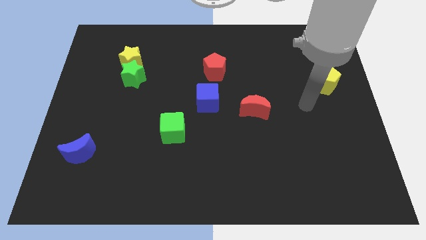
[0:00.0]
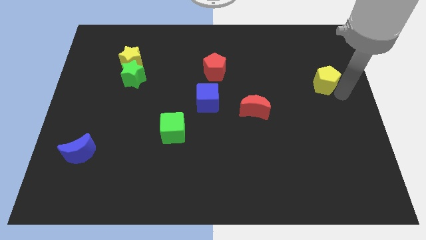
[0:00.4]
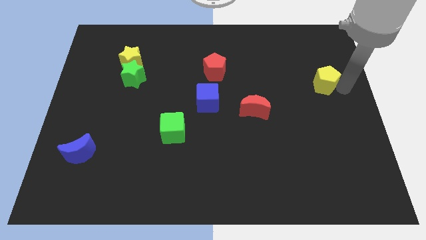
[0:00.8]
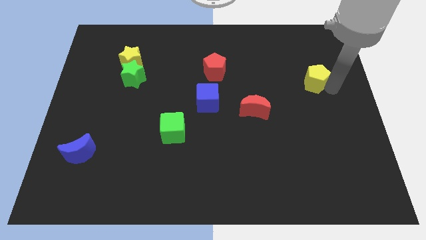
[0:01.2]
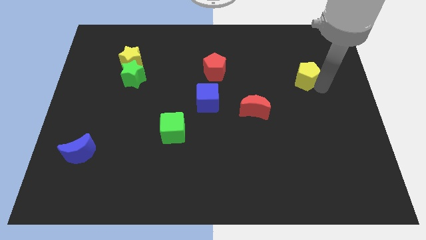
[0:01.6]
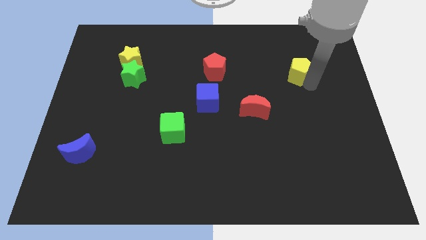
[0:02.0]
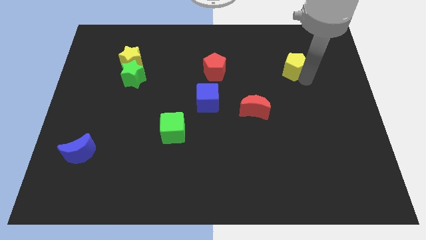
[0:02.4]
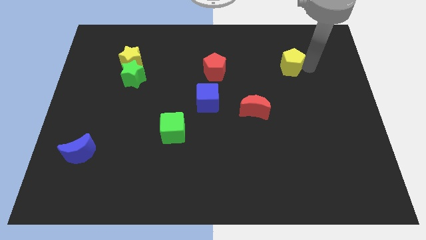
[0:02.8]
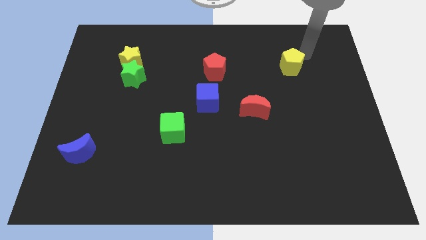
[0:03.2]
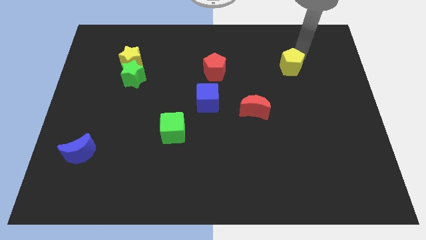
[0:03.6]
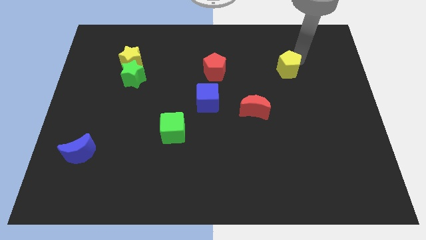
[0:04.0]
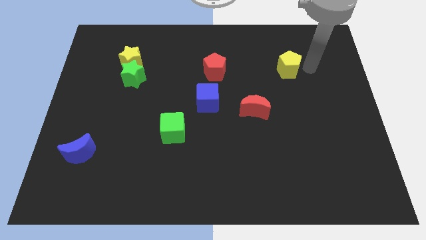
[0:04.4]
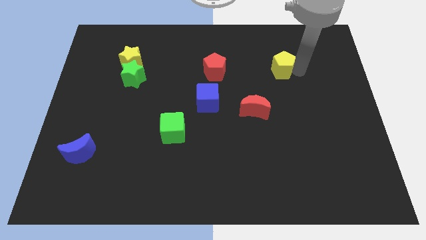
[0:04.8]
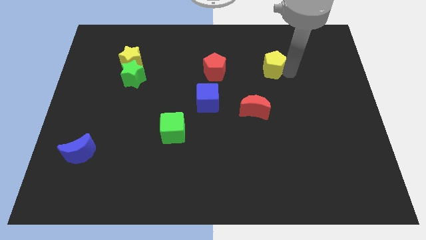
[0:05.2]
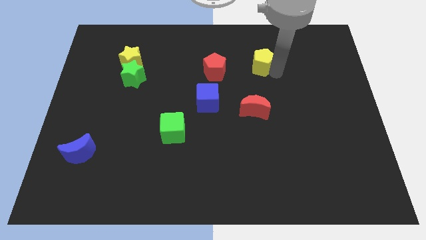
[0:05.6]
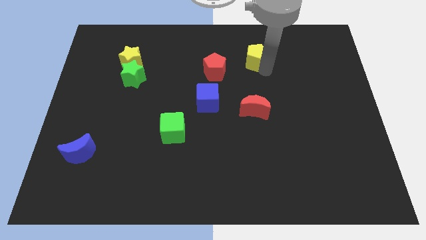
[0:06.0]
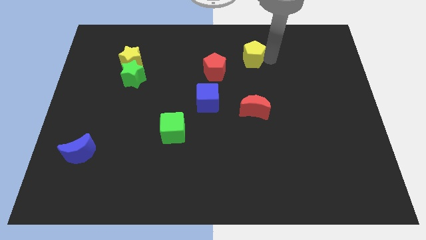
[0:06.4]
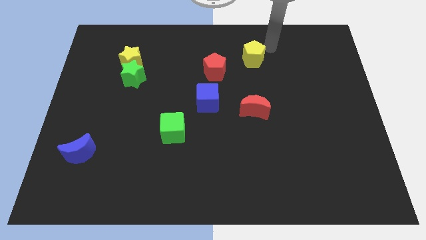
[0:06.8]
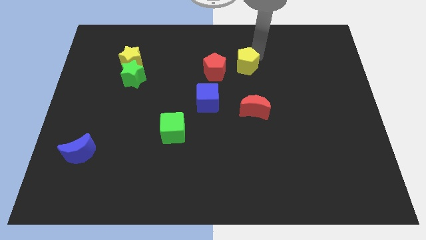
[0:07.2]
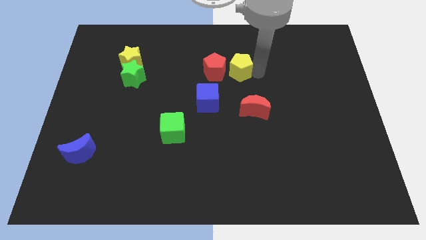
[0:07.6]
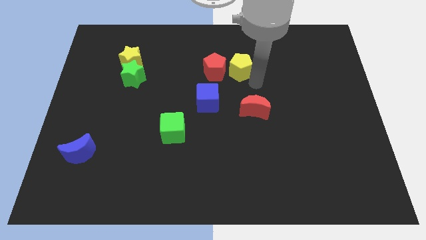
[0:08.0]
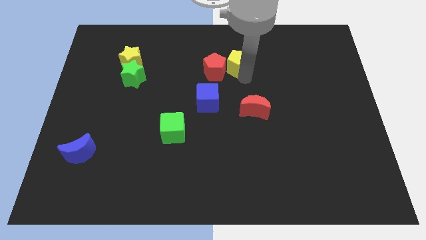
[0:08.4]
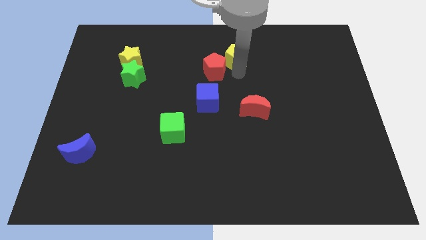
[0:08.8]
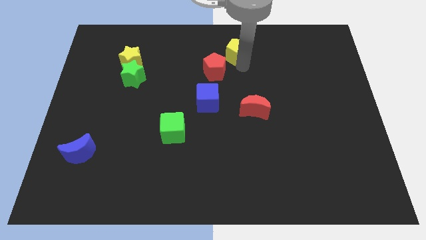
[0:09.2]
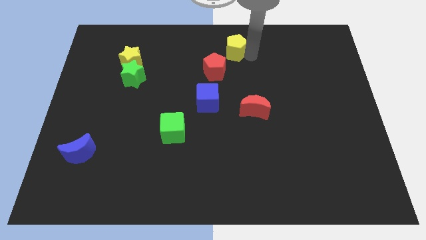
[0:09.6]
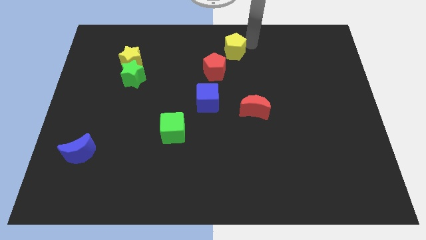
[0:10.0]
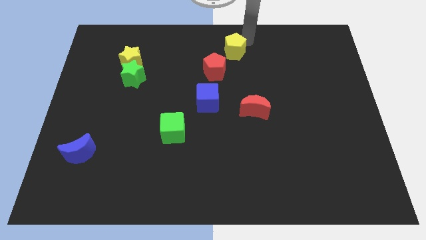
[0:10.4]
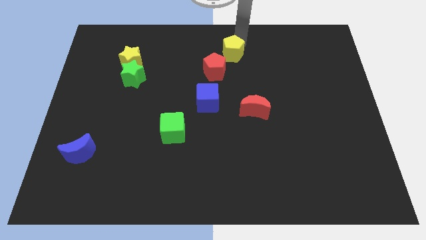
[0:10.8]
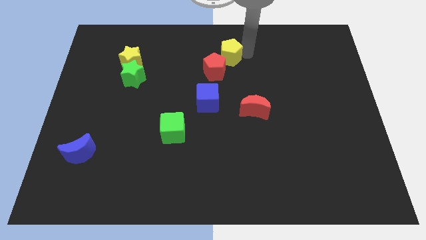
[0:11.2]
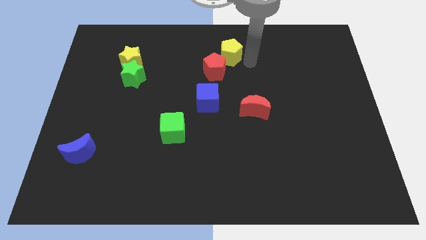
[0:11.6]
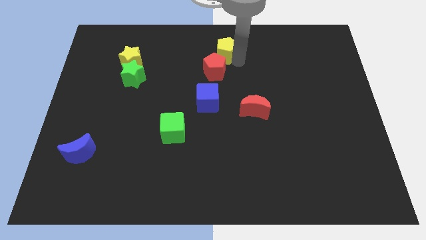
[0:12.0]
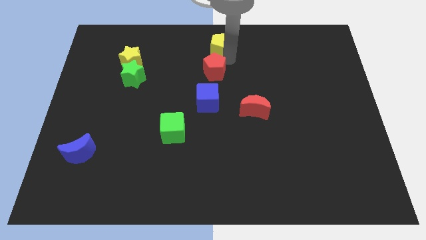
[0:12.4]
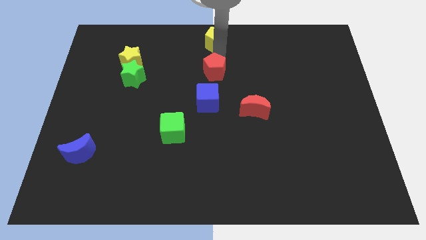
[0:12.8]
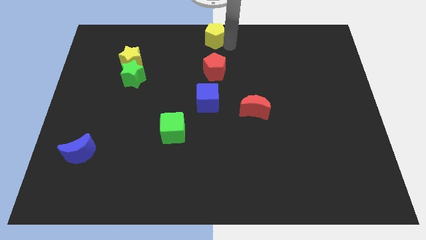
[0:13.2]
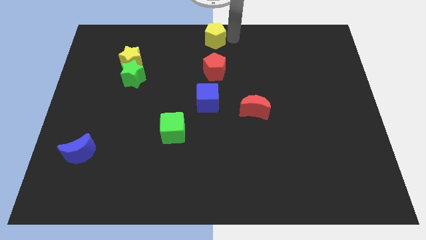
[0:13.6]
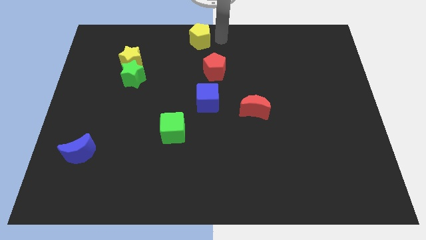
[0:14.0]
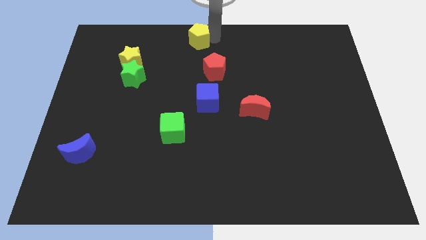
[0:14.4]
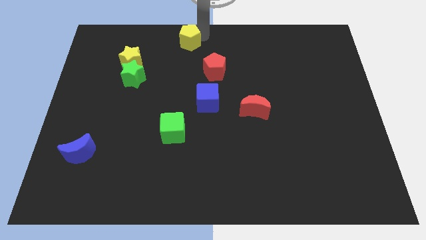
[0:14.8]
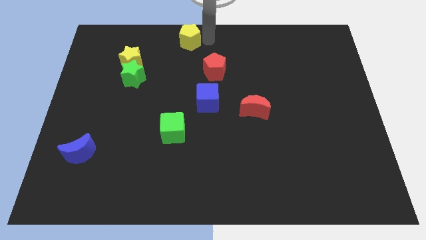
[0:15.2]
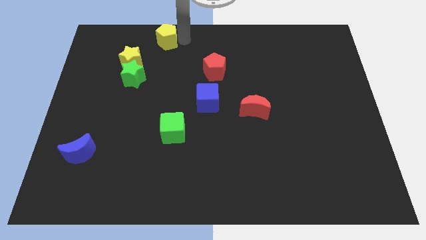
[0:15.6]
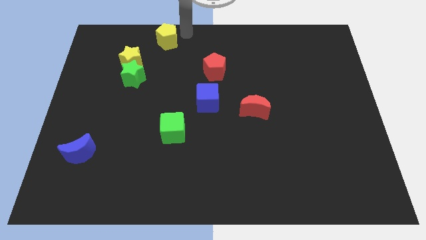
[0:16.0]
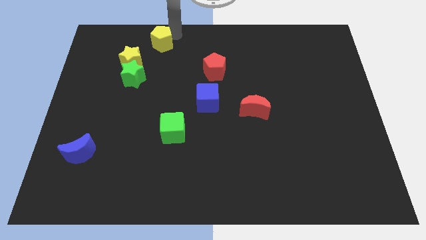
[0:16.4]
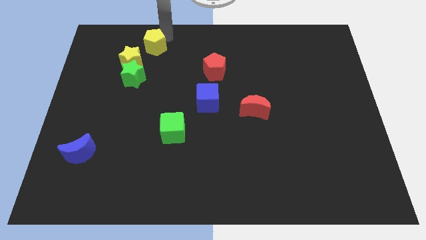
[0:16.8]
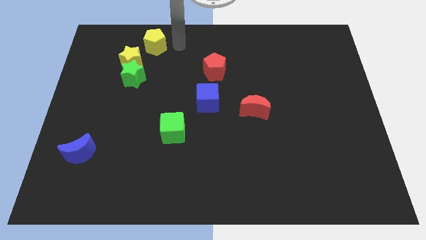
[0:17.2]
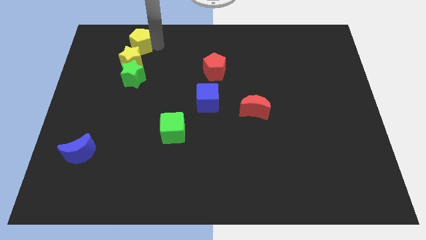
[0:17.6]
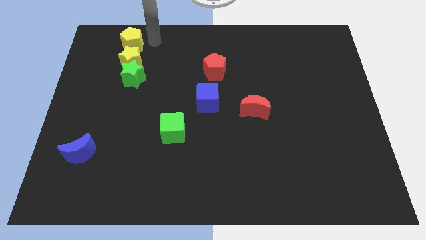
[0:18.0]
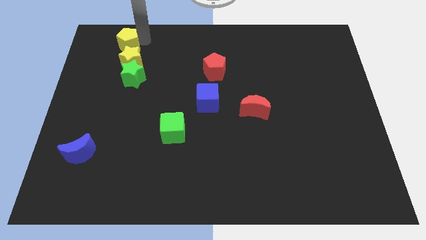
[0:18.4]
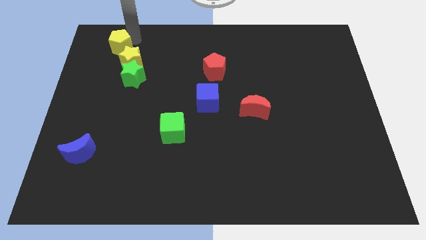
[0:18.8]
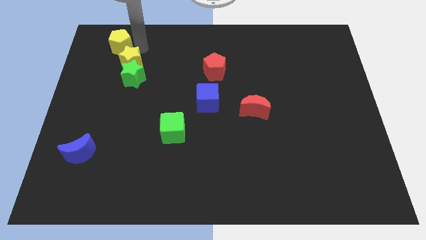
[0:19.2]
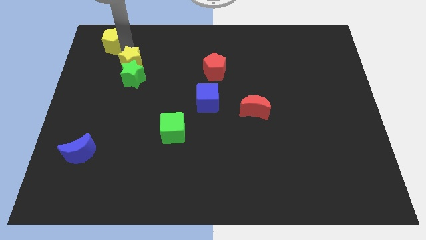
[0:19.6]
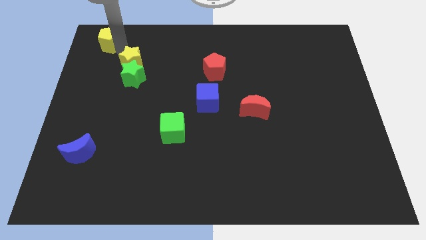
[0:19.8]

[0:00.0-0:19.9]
move the yellow pentagon to the top left corner

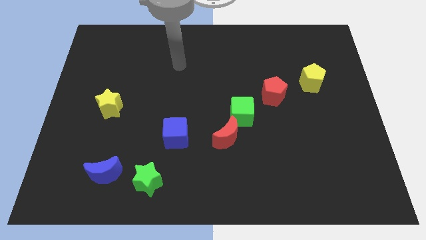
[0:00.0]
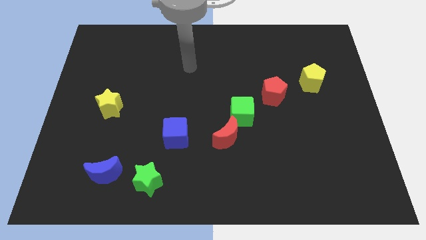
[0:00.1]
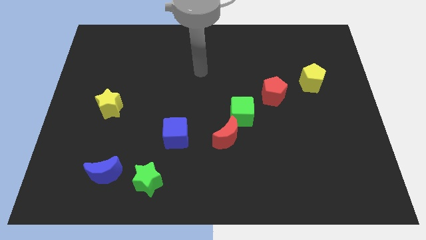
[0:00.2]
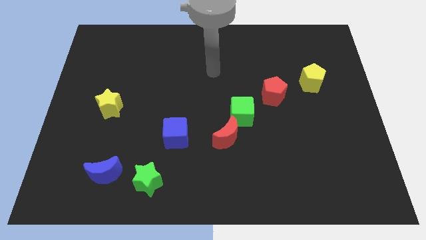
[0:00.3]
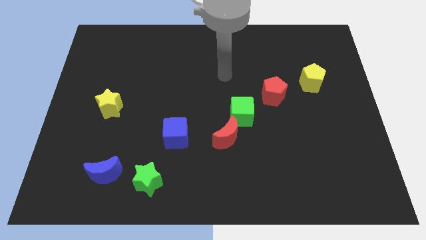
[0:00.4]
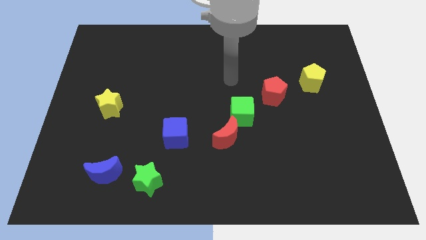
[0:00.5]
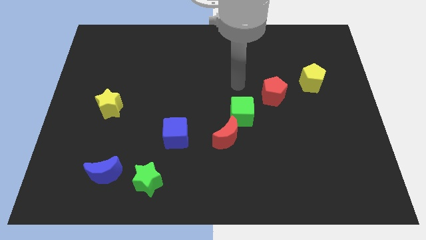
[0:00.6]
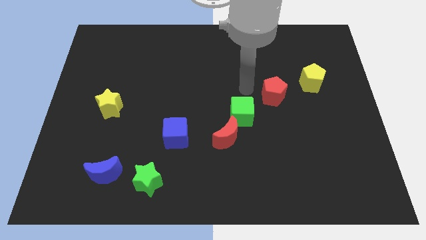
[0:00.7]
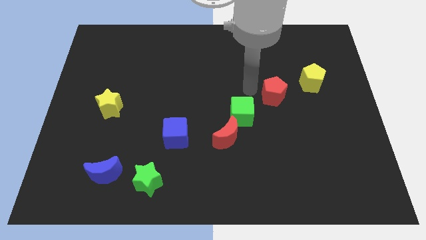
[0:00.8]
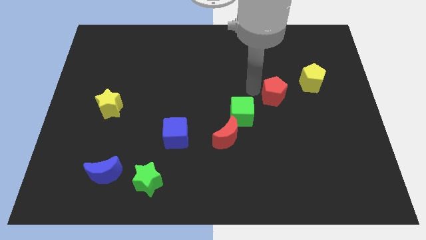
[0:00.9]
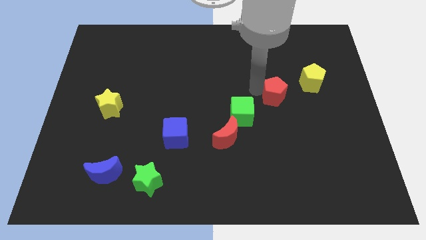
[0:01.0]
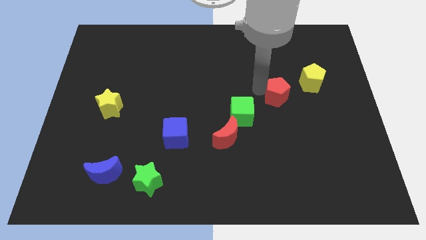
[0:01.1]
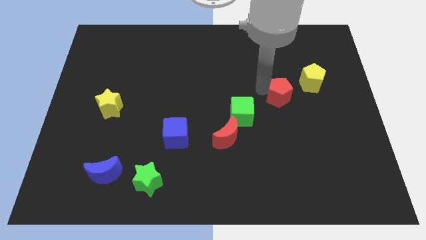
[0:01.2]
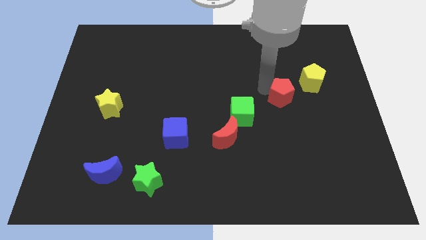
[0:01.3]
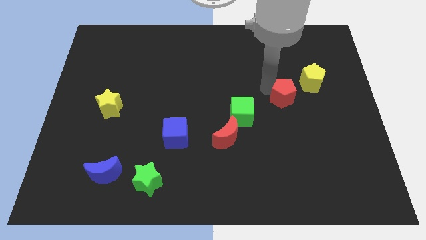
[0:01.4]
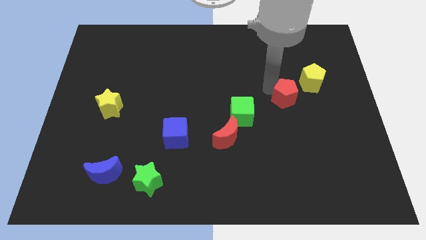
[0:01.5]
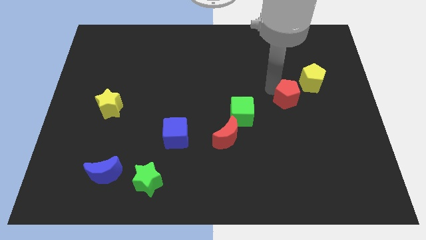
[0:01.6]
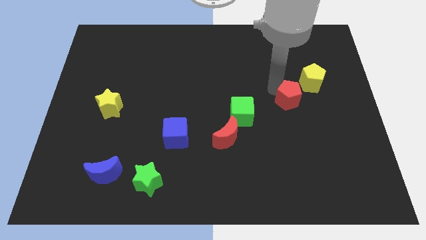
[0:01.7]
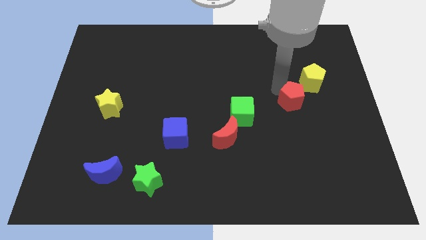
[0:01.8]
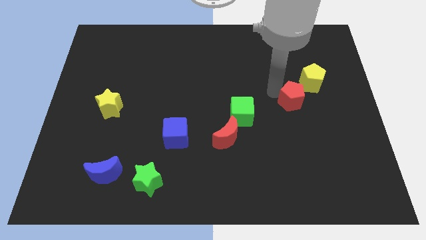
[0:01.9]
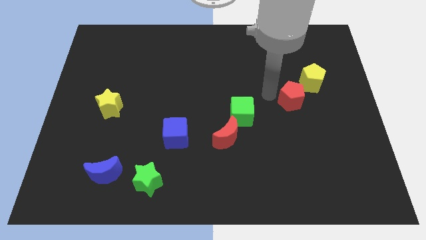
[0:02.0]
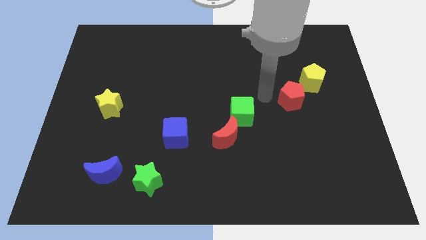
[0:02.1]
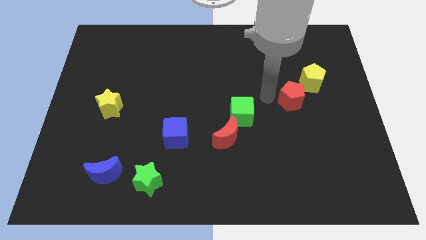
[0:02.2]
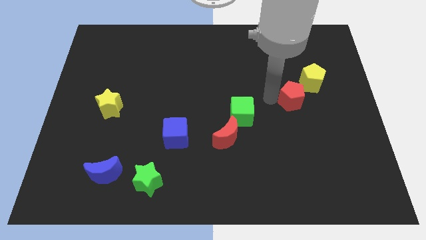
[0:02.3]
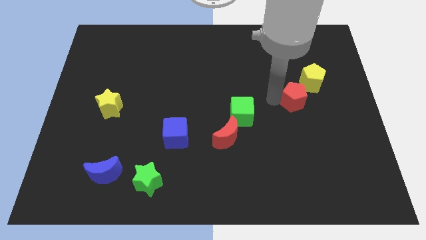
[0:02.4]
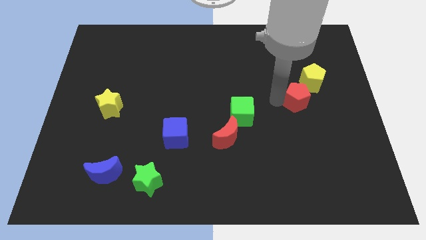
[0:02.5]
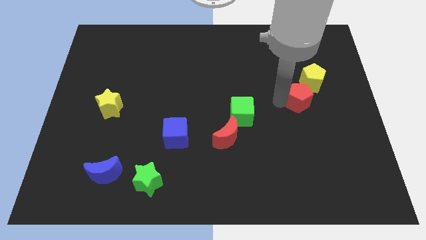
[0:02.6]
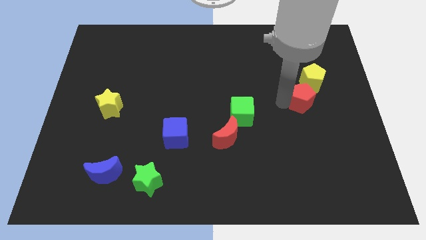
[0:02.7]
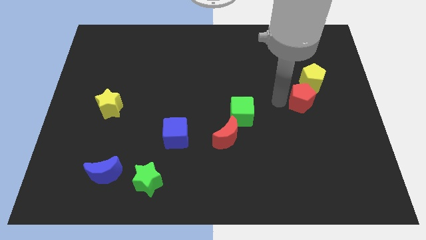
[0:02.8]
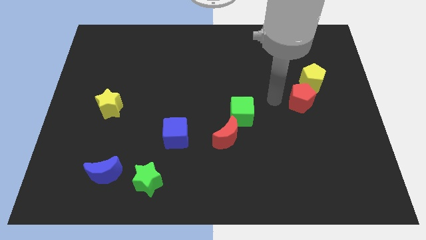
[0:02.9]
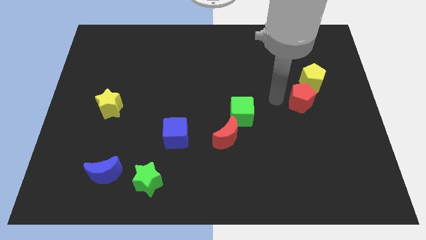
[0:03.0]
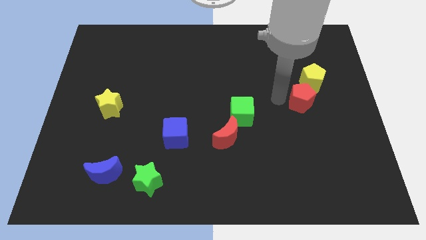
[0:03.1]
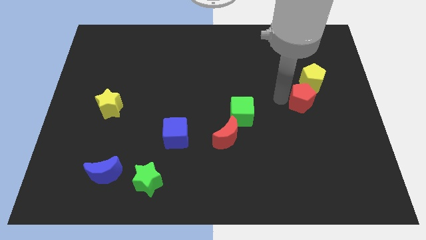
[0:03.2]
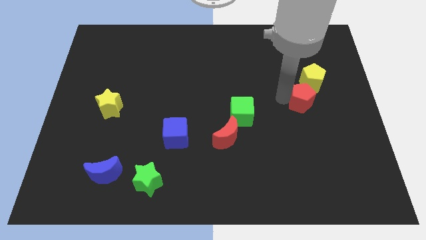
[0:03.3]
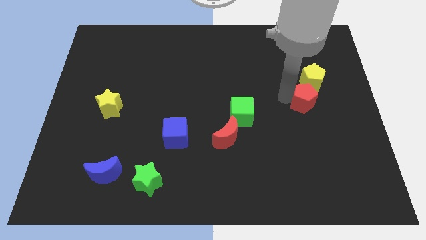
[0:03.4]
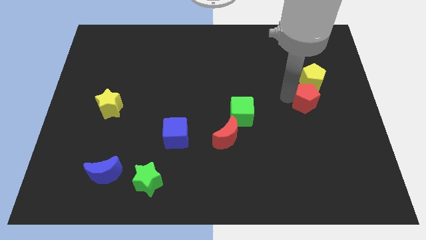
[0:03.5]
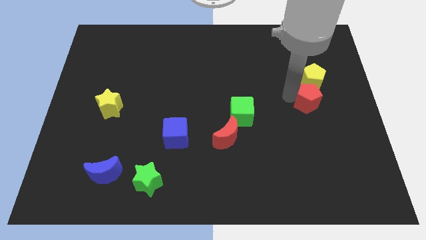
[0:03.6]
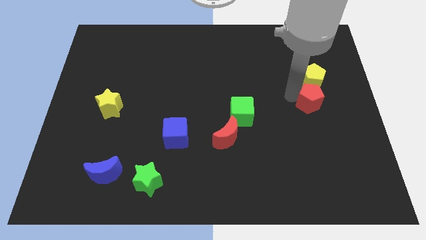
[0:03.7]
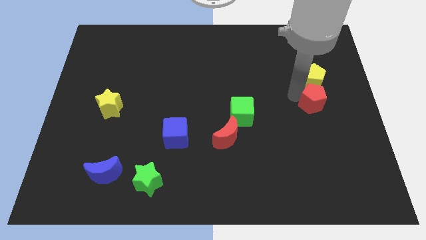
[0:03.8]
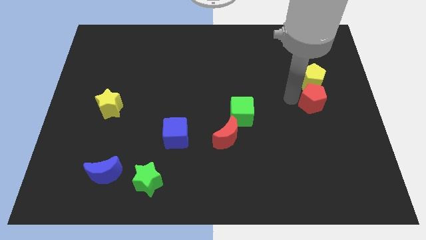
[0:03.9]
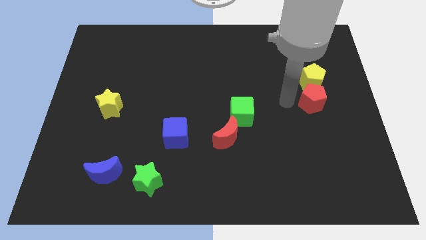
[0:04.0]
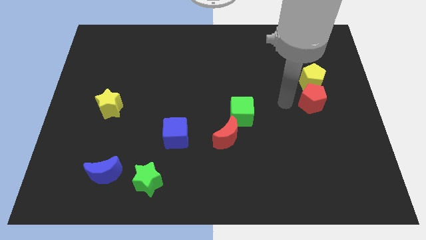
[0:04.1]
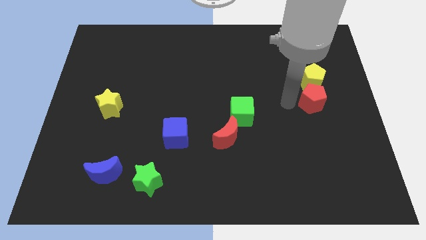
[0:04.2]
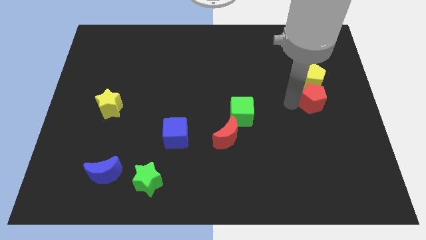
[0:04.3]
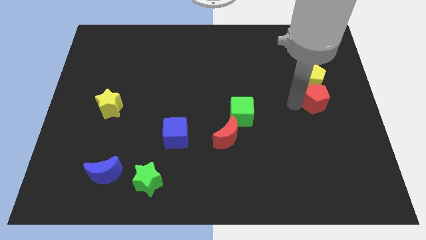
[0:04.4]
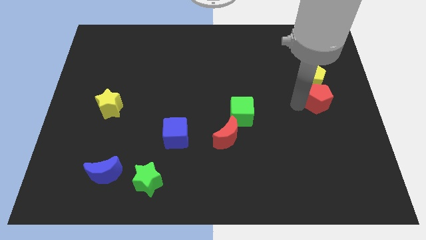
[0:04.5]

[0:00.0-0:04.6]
put the red pentagon to the center right
